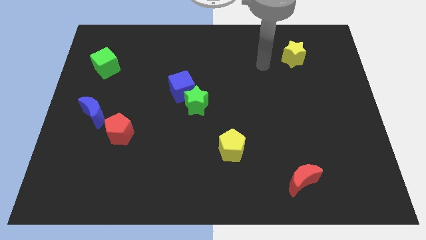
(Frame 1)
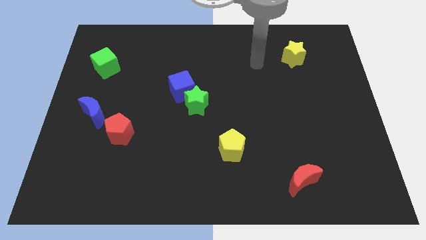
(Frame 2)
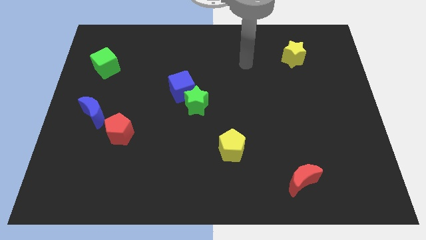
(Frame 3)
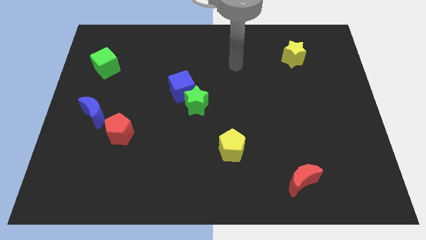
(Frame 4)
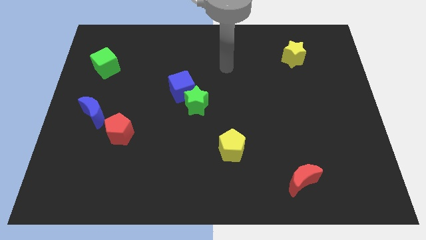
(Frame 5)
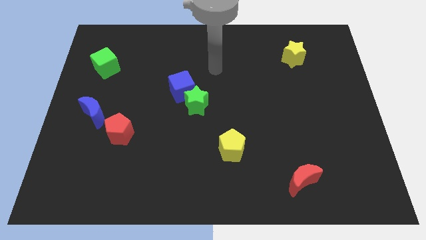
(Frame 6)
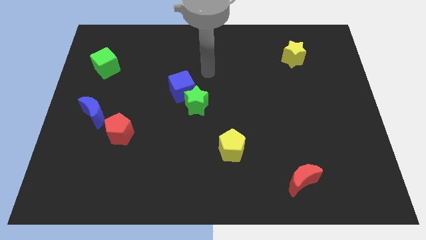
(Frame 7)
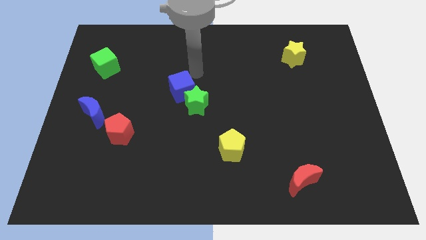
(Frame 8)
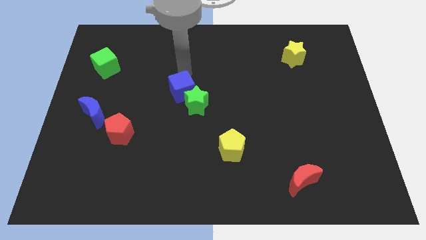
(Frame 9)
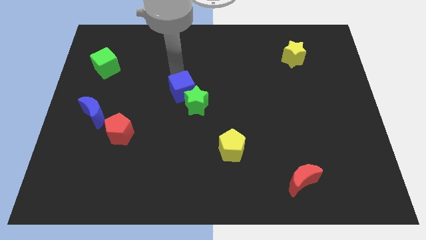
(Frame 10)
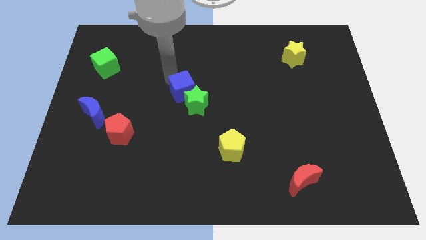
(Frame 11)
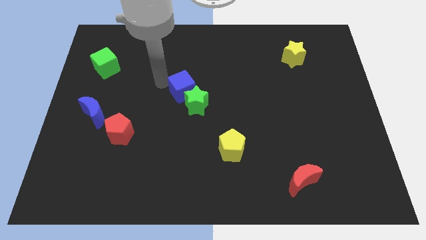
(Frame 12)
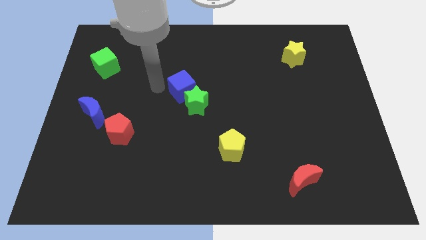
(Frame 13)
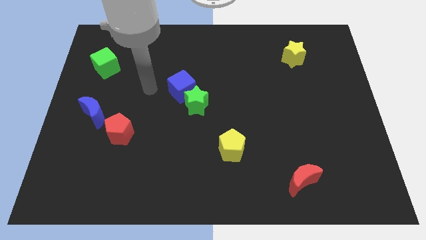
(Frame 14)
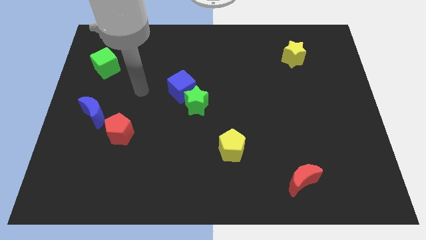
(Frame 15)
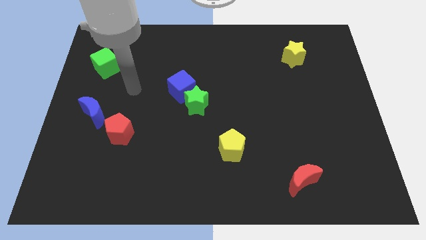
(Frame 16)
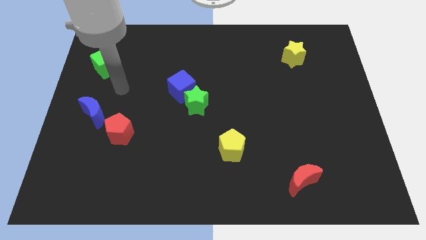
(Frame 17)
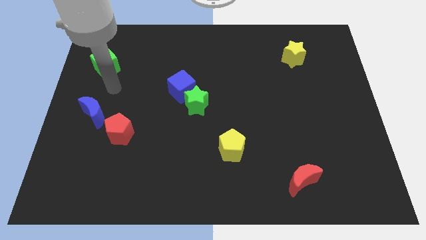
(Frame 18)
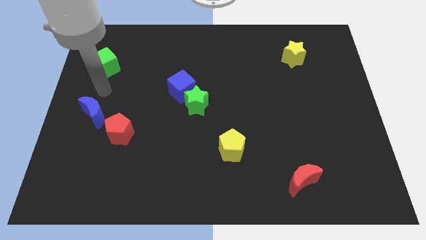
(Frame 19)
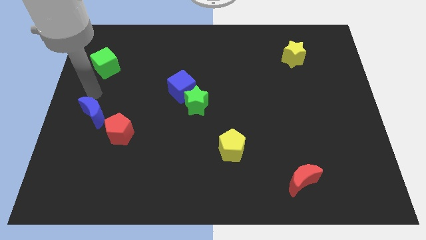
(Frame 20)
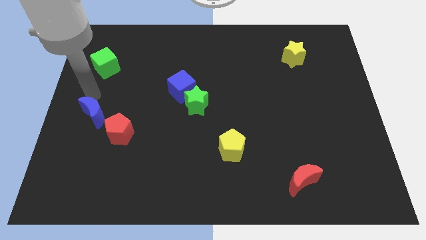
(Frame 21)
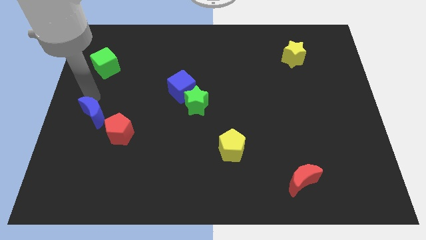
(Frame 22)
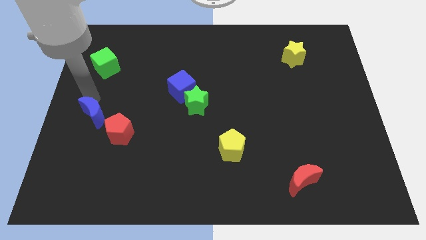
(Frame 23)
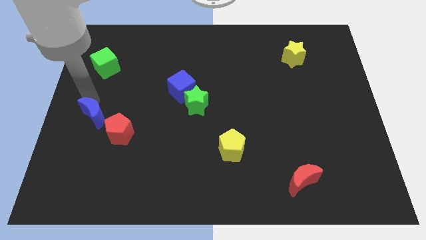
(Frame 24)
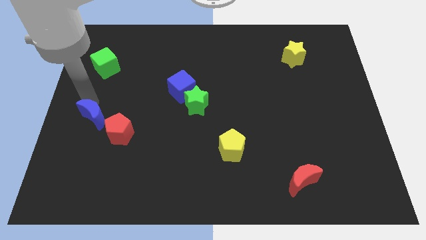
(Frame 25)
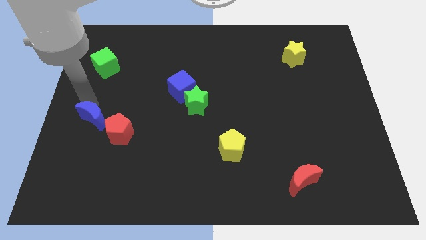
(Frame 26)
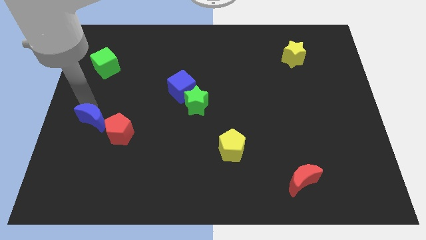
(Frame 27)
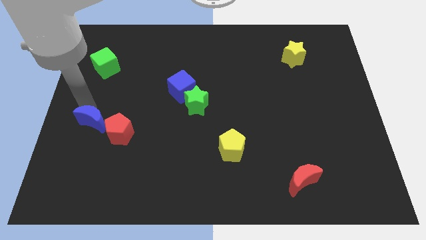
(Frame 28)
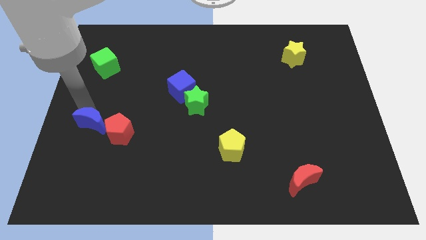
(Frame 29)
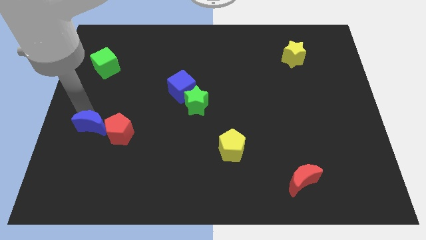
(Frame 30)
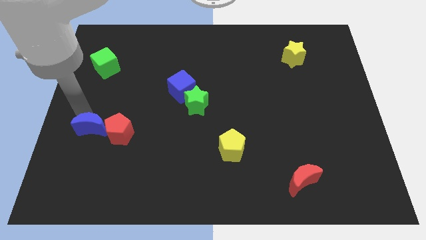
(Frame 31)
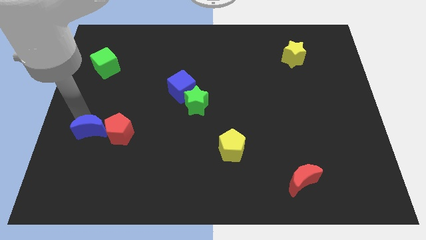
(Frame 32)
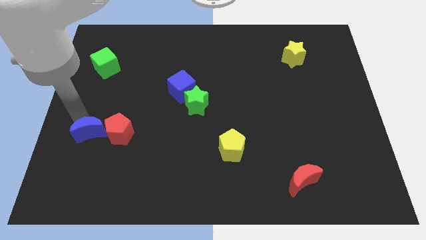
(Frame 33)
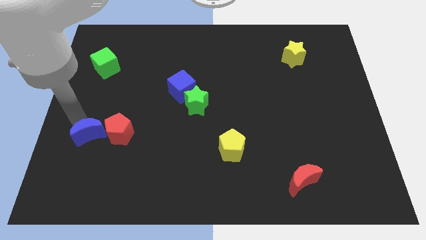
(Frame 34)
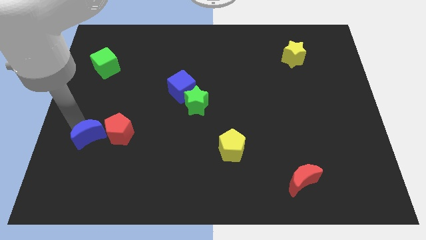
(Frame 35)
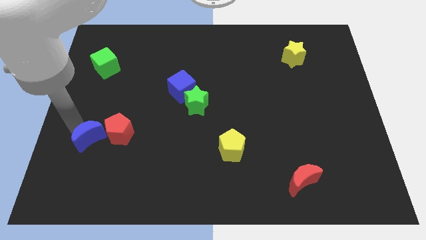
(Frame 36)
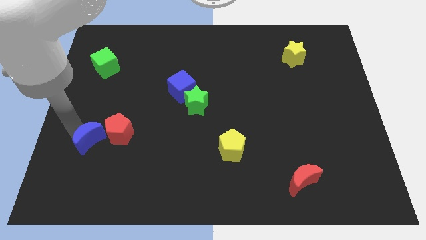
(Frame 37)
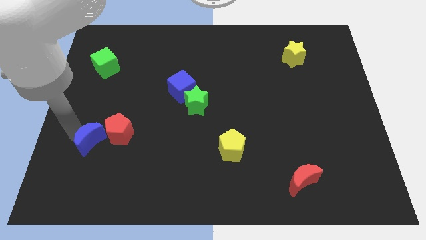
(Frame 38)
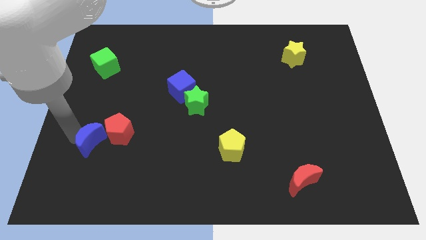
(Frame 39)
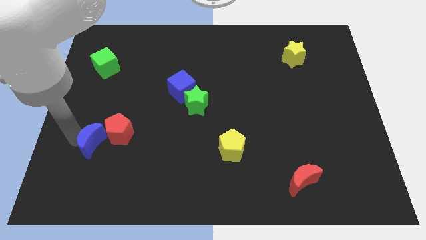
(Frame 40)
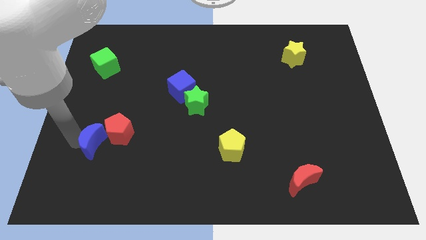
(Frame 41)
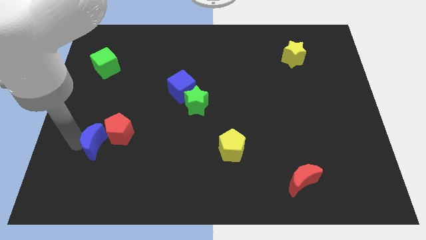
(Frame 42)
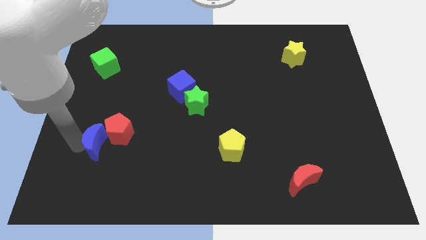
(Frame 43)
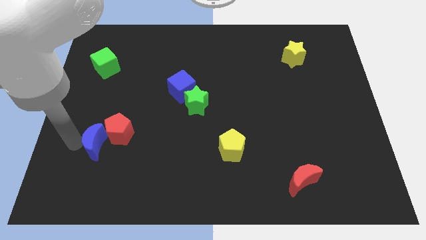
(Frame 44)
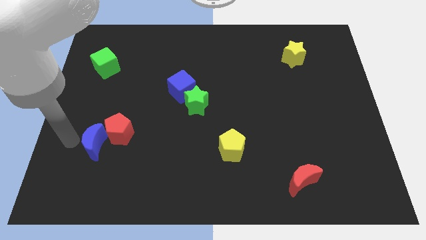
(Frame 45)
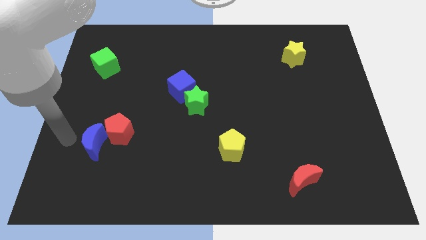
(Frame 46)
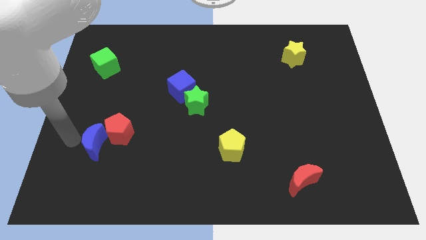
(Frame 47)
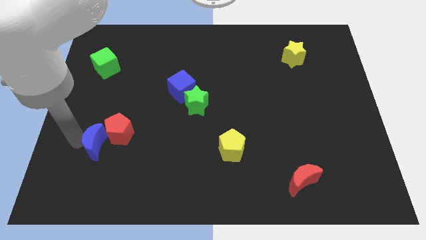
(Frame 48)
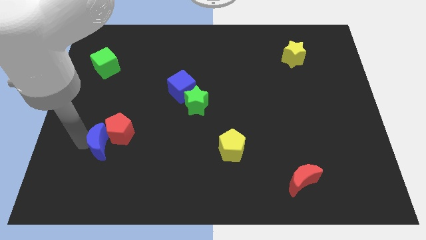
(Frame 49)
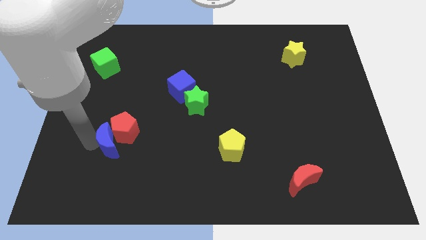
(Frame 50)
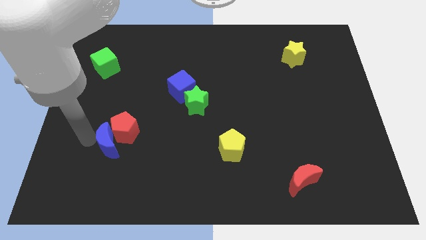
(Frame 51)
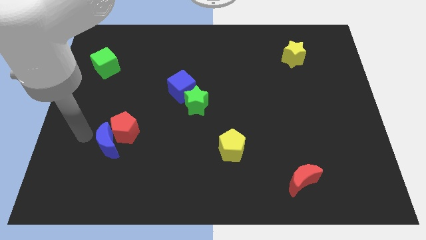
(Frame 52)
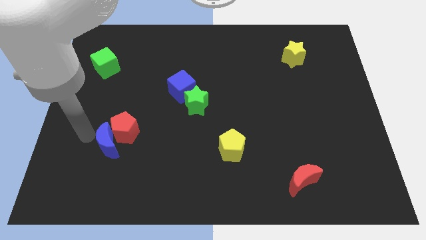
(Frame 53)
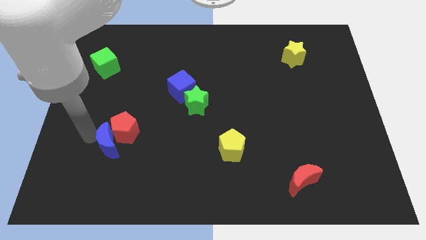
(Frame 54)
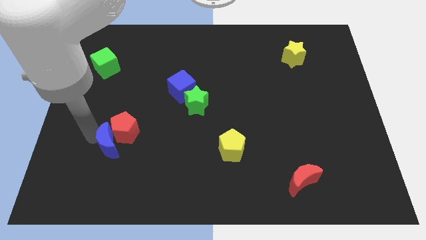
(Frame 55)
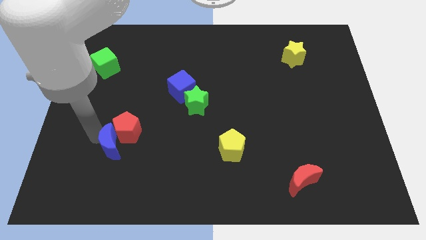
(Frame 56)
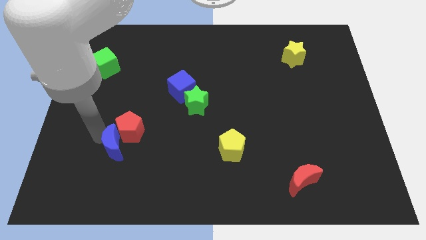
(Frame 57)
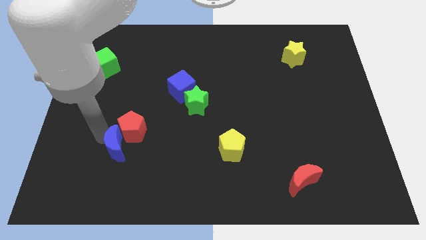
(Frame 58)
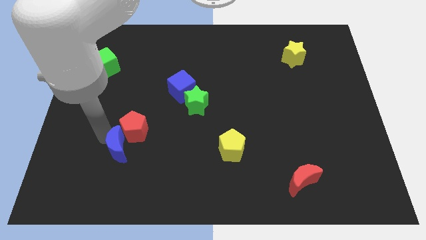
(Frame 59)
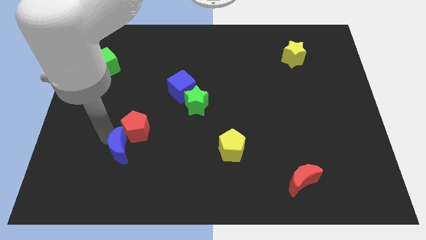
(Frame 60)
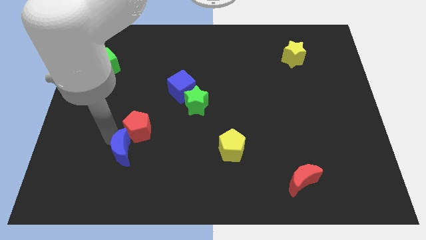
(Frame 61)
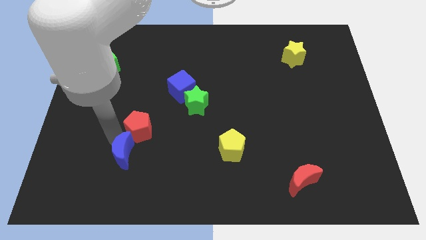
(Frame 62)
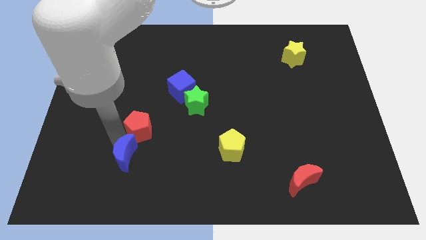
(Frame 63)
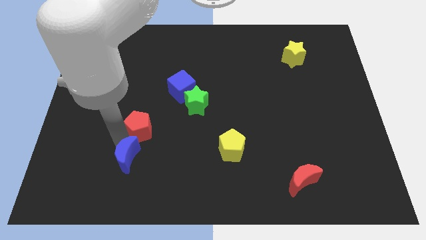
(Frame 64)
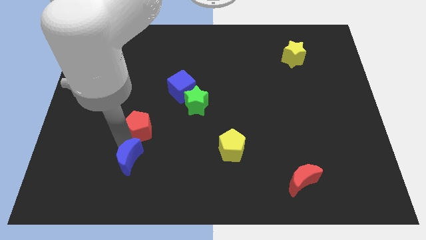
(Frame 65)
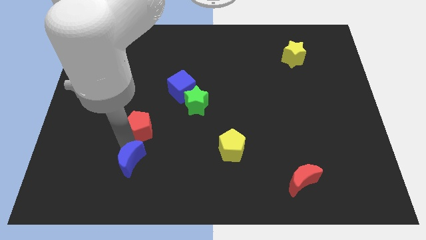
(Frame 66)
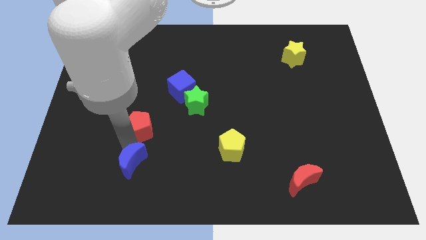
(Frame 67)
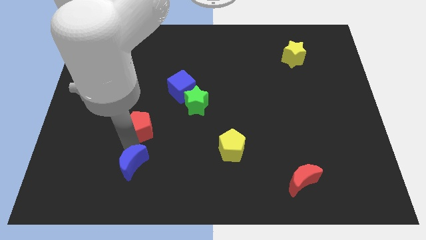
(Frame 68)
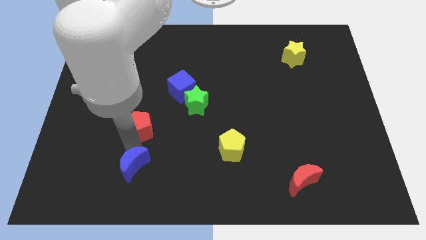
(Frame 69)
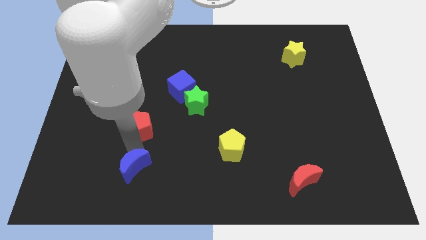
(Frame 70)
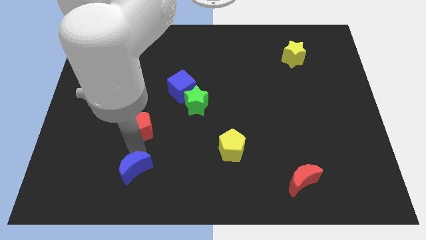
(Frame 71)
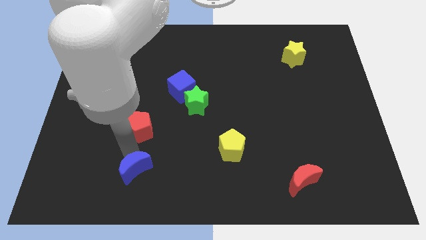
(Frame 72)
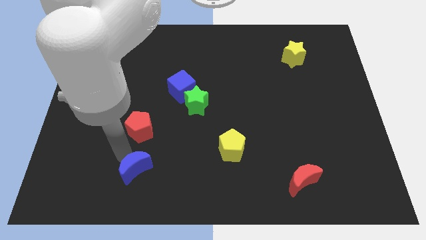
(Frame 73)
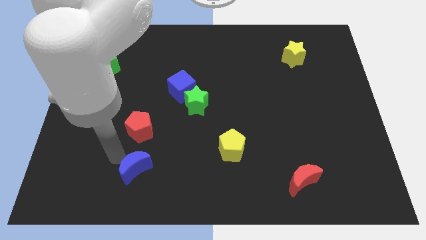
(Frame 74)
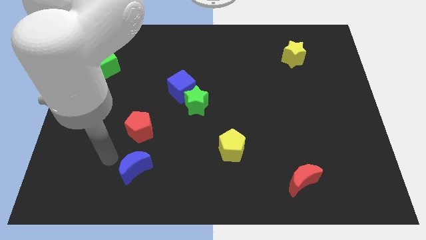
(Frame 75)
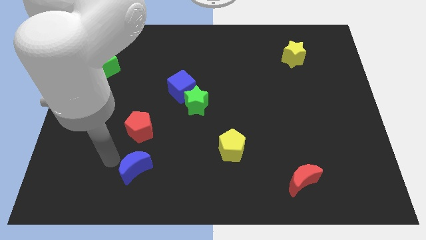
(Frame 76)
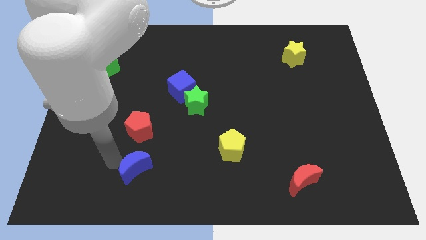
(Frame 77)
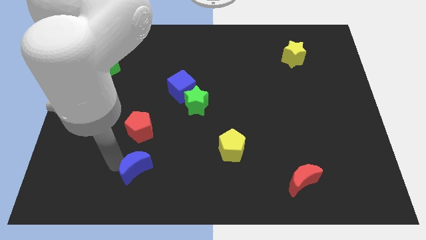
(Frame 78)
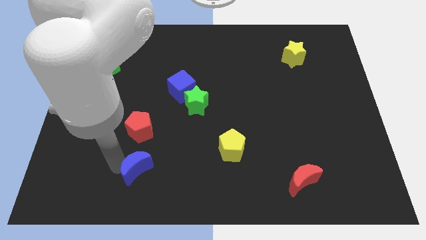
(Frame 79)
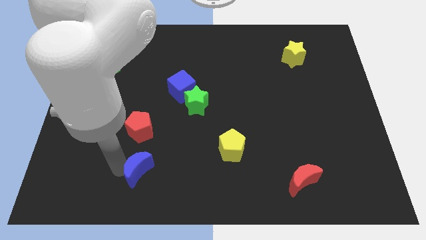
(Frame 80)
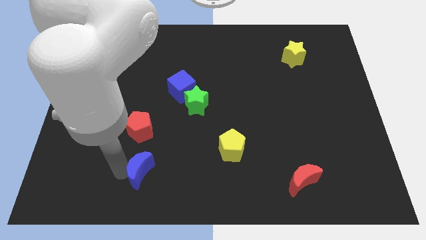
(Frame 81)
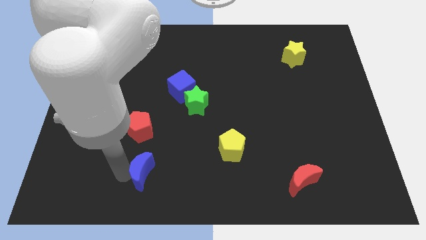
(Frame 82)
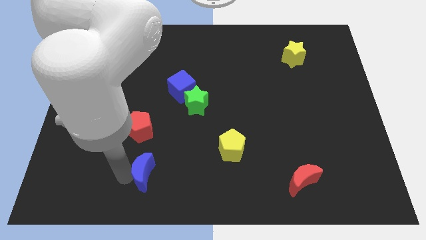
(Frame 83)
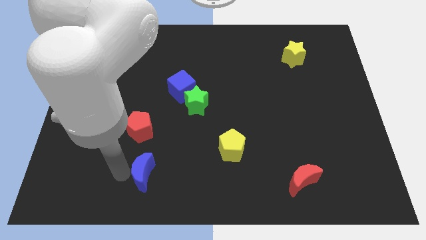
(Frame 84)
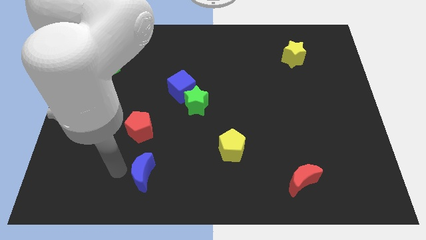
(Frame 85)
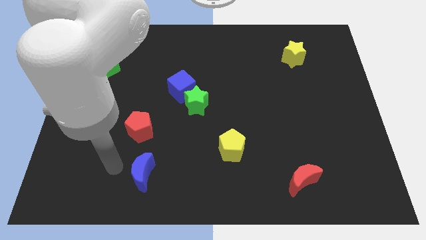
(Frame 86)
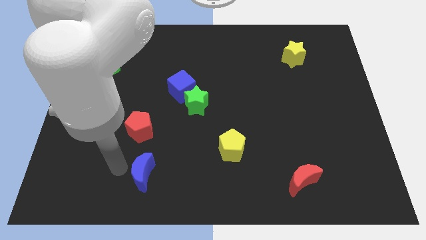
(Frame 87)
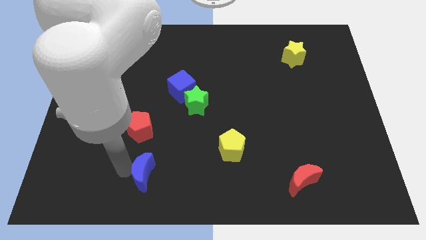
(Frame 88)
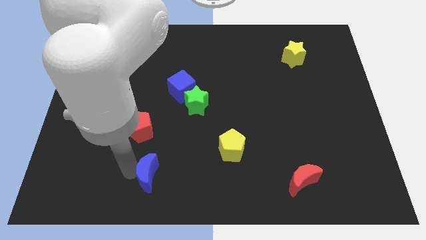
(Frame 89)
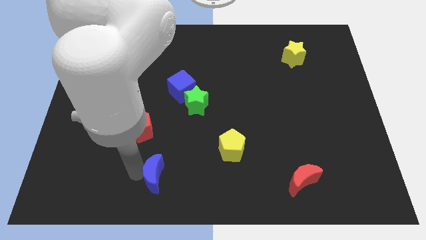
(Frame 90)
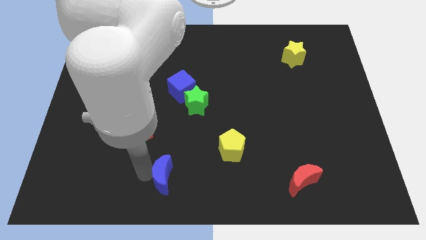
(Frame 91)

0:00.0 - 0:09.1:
put the blue moon to the bottom side
